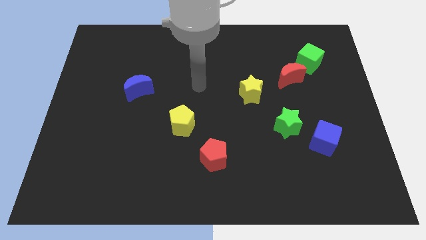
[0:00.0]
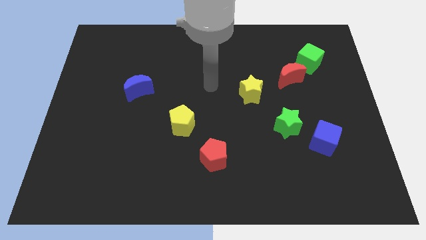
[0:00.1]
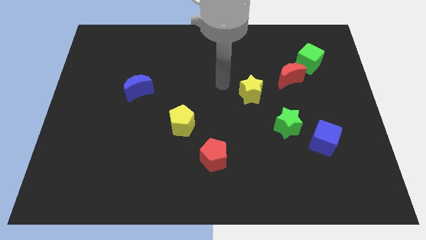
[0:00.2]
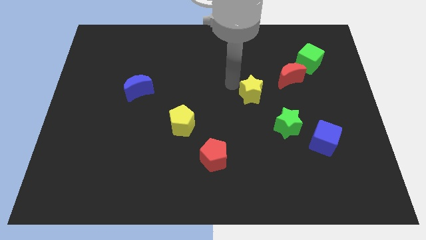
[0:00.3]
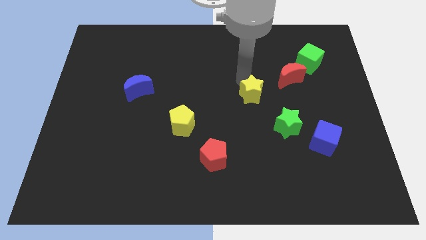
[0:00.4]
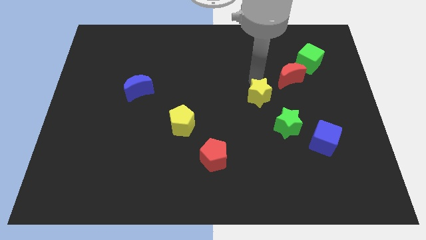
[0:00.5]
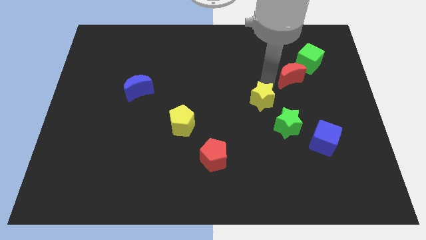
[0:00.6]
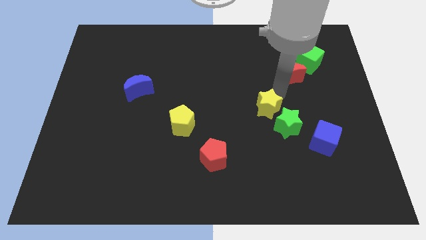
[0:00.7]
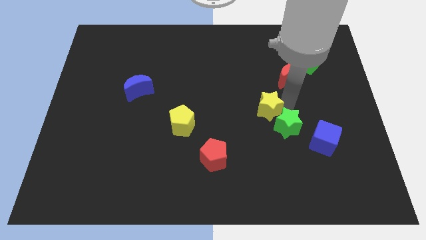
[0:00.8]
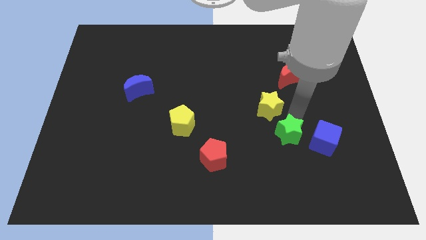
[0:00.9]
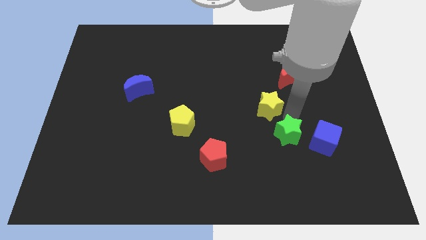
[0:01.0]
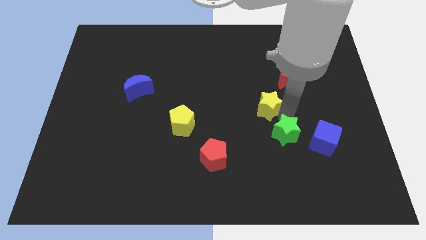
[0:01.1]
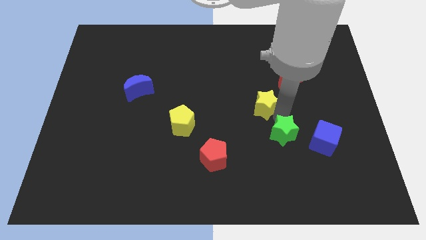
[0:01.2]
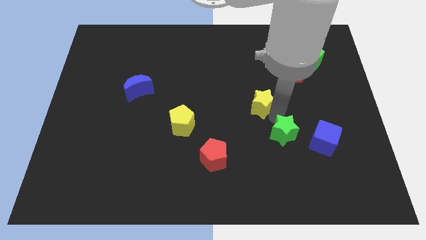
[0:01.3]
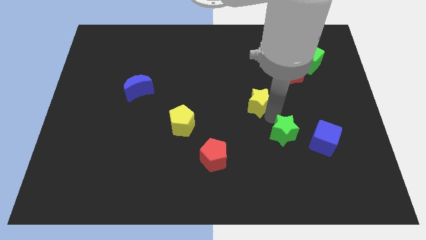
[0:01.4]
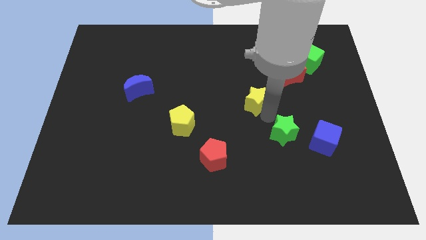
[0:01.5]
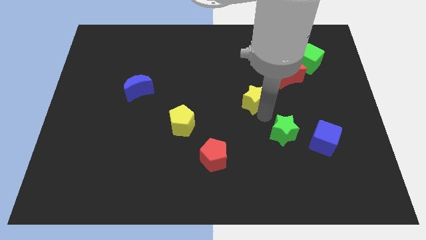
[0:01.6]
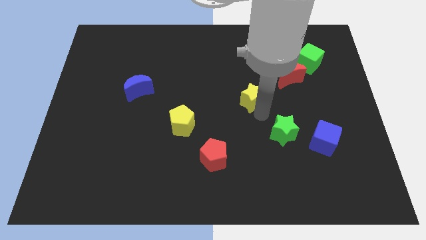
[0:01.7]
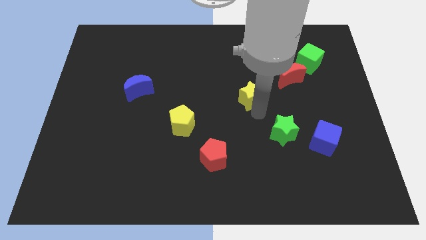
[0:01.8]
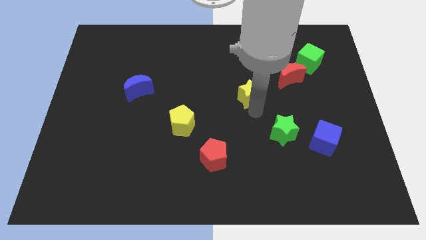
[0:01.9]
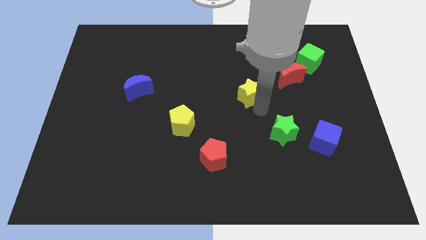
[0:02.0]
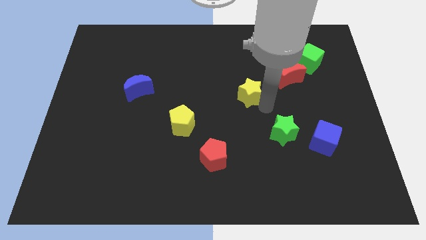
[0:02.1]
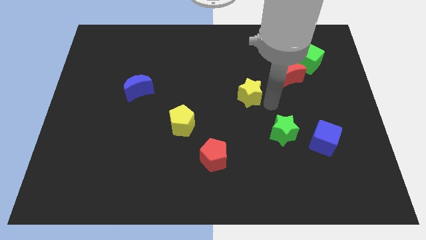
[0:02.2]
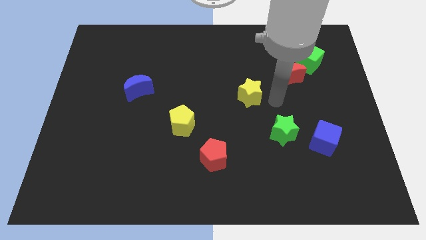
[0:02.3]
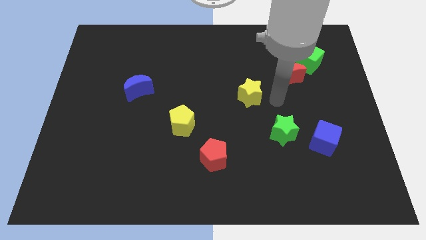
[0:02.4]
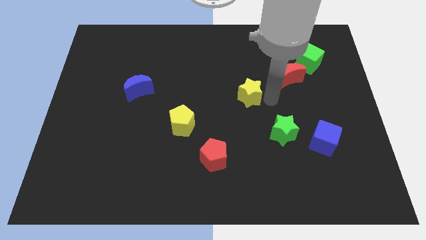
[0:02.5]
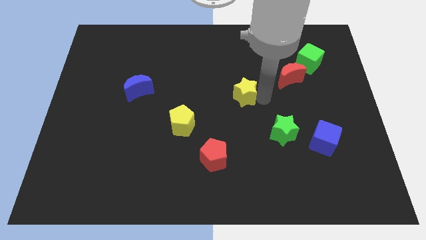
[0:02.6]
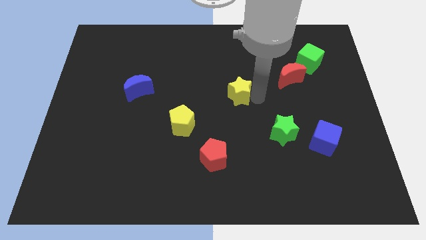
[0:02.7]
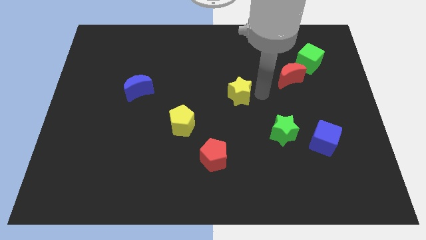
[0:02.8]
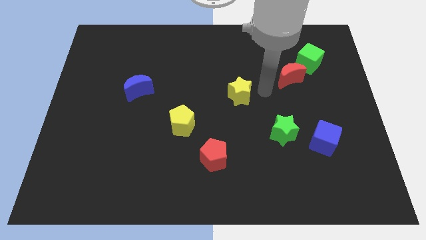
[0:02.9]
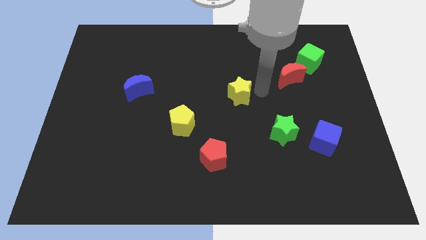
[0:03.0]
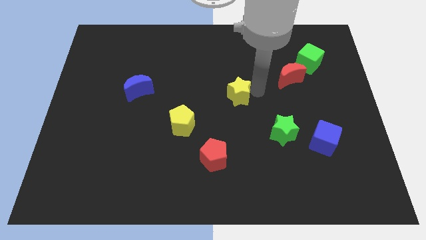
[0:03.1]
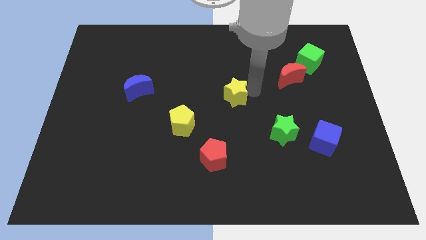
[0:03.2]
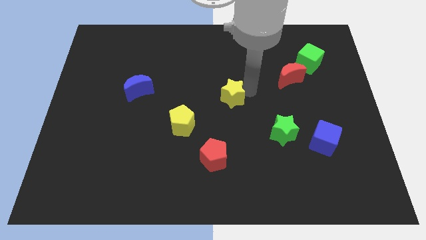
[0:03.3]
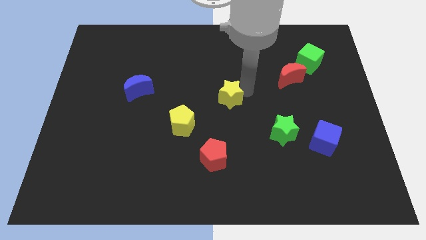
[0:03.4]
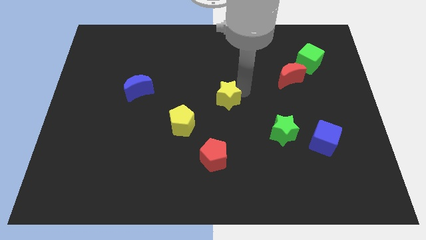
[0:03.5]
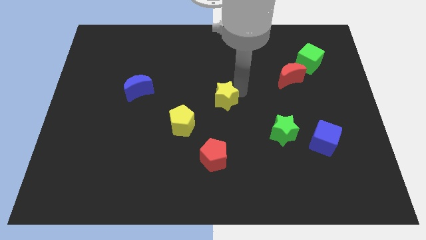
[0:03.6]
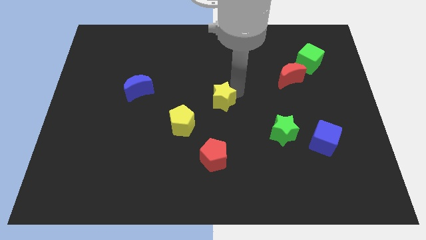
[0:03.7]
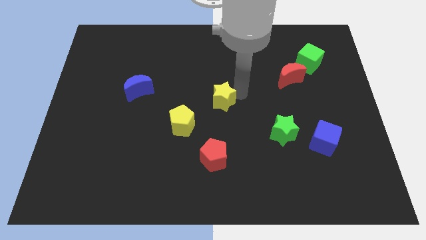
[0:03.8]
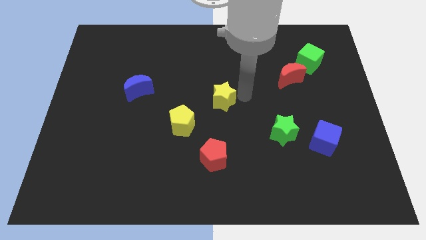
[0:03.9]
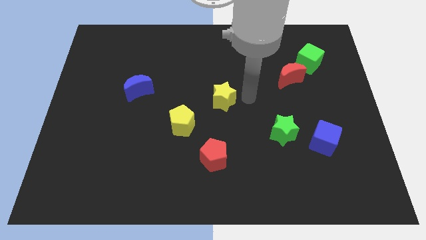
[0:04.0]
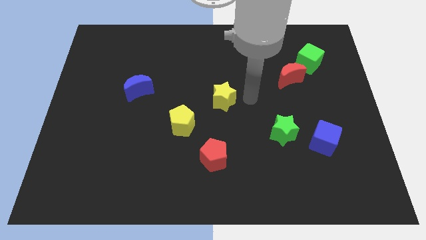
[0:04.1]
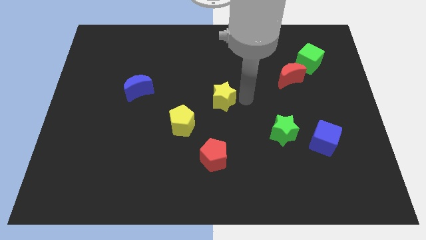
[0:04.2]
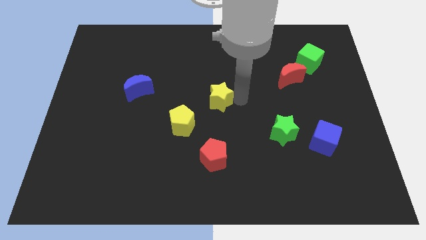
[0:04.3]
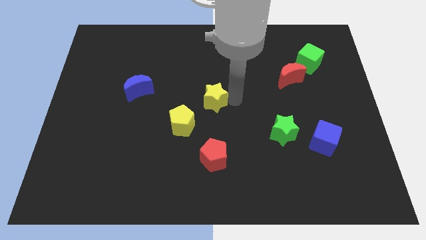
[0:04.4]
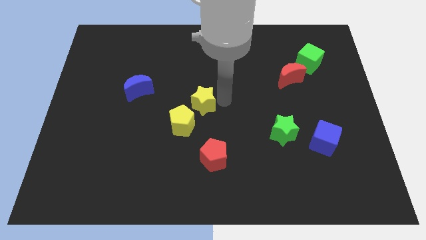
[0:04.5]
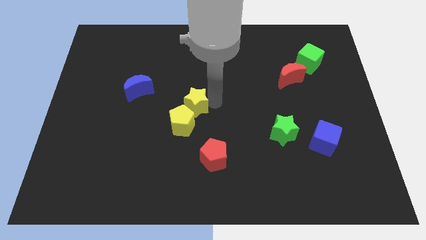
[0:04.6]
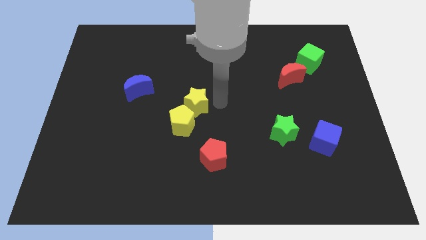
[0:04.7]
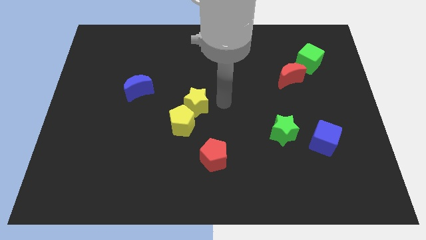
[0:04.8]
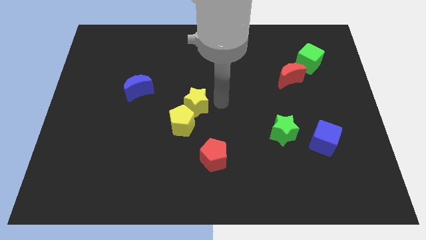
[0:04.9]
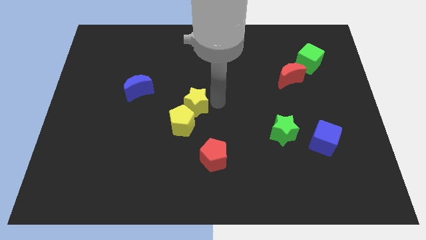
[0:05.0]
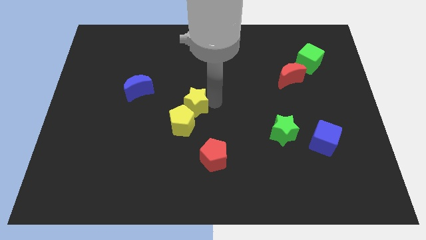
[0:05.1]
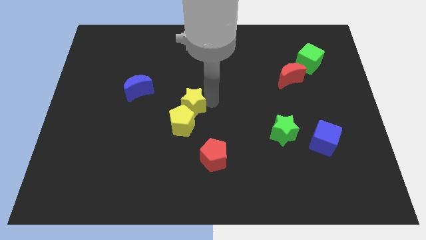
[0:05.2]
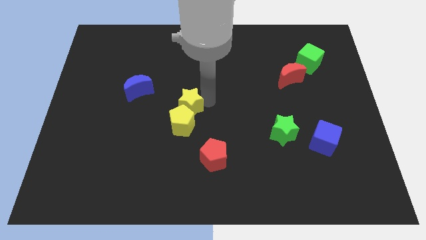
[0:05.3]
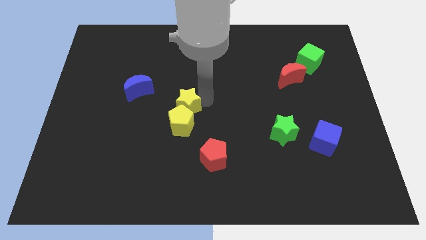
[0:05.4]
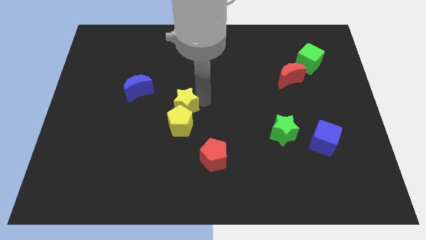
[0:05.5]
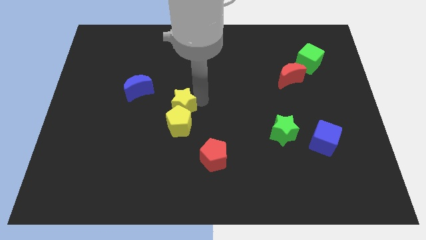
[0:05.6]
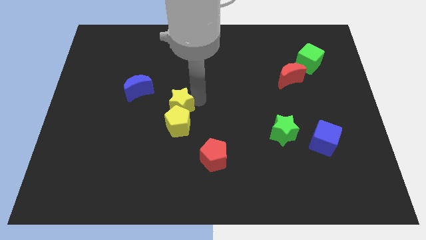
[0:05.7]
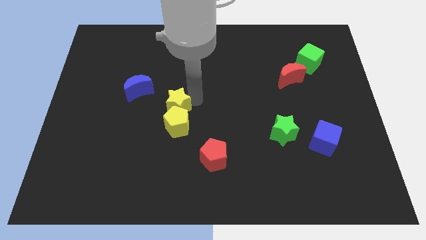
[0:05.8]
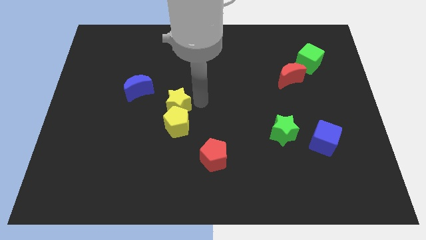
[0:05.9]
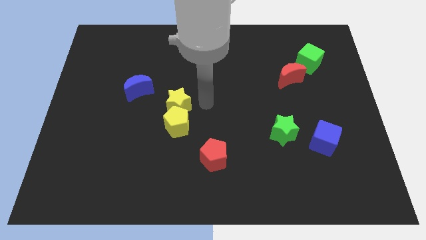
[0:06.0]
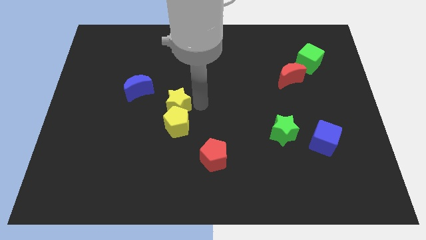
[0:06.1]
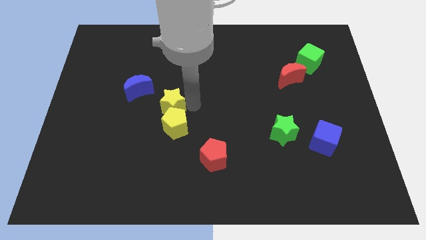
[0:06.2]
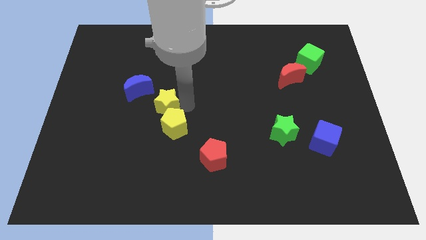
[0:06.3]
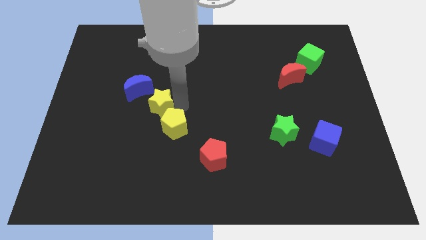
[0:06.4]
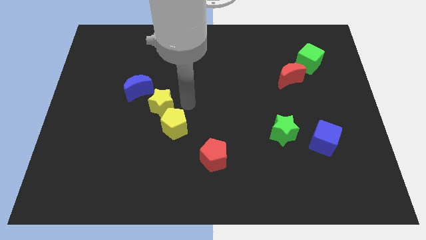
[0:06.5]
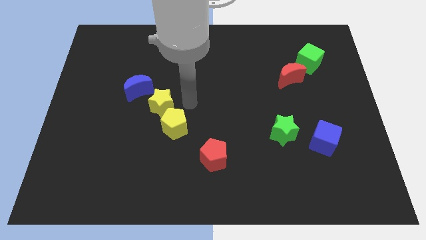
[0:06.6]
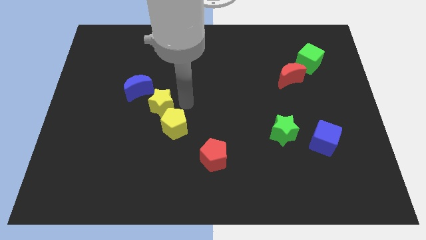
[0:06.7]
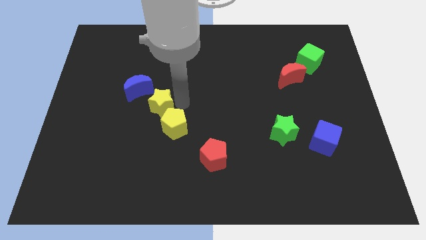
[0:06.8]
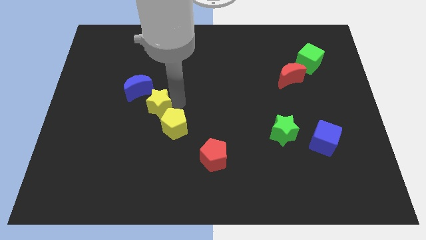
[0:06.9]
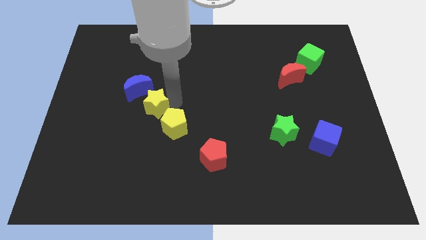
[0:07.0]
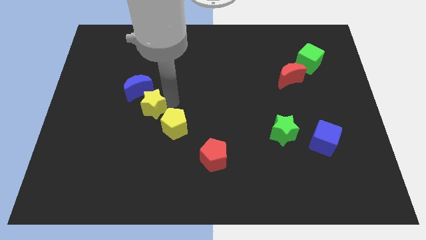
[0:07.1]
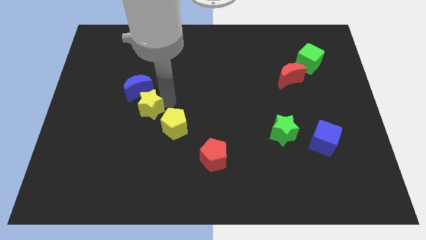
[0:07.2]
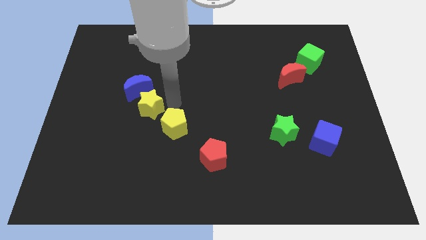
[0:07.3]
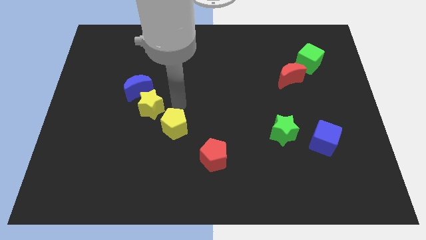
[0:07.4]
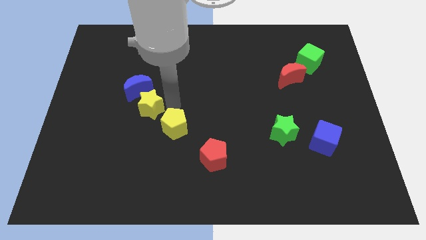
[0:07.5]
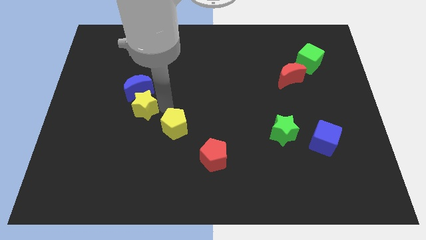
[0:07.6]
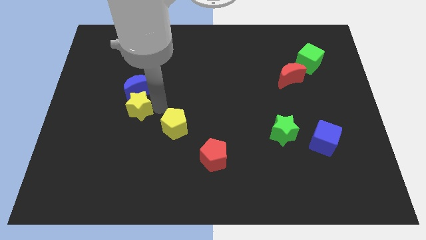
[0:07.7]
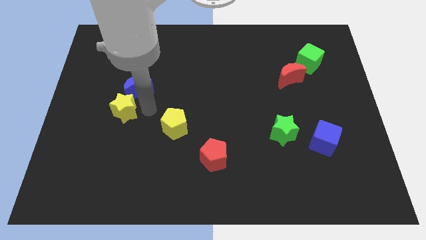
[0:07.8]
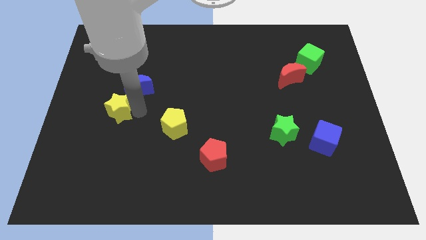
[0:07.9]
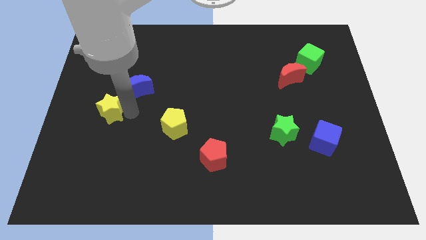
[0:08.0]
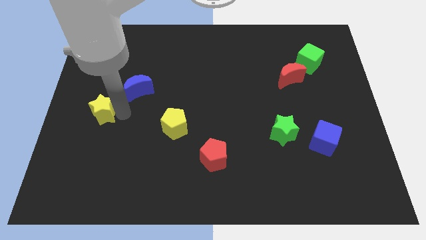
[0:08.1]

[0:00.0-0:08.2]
push the yellow star to the left side
